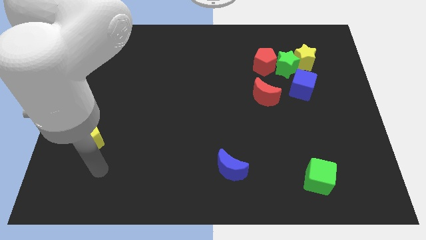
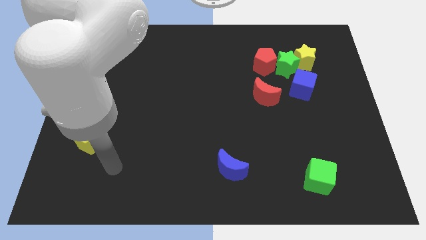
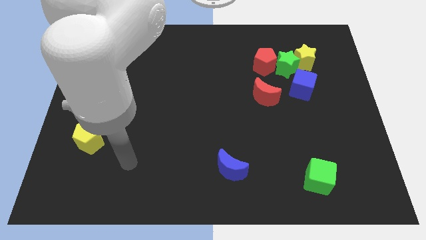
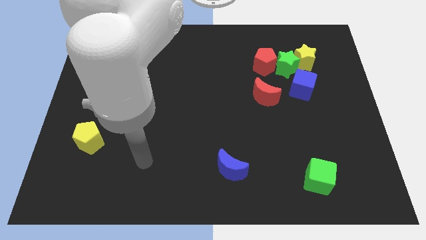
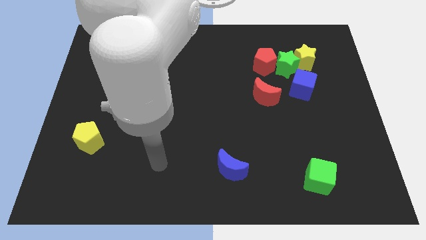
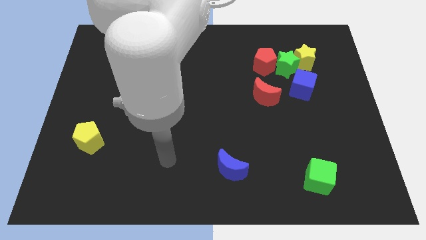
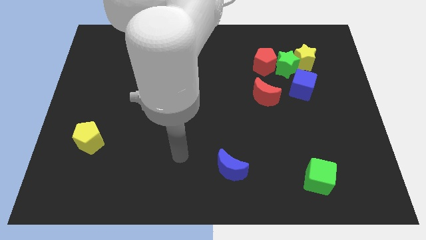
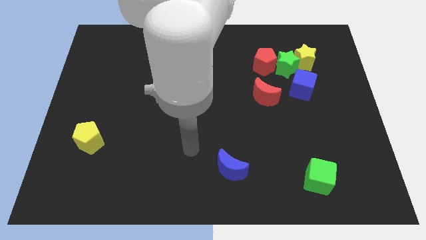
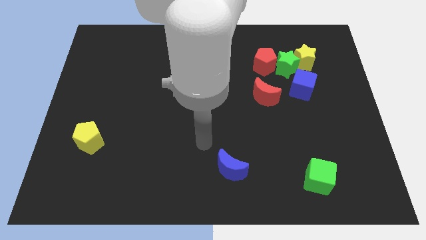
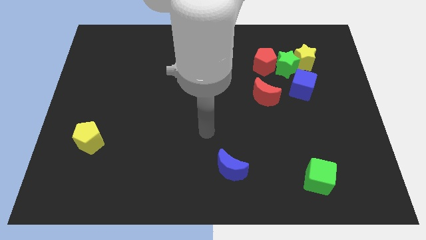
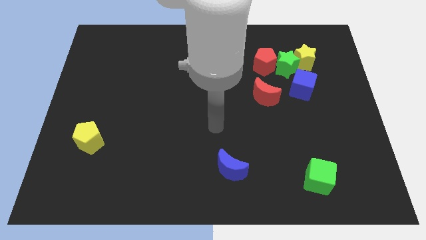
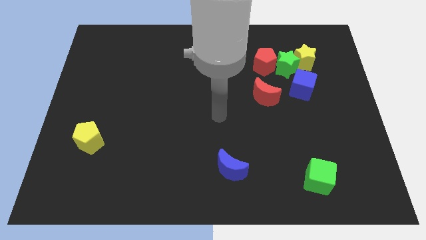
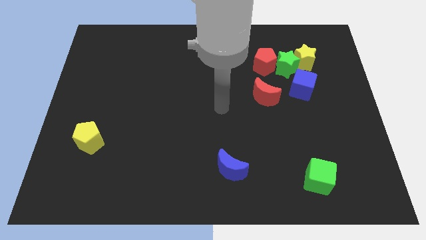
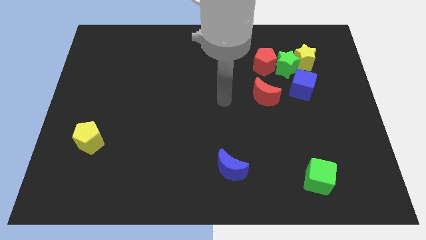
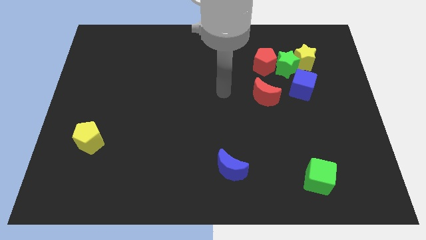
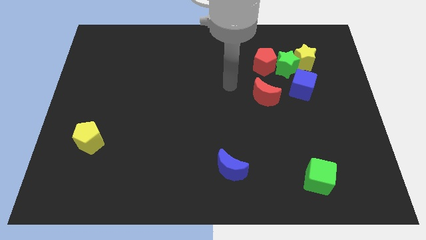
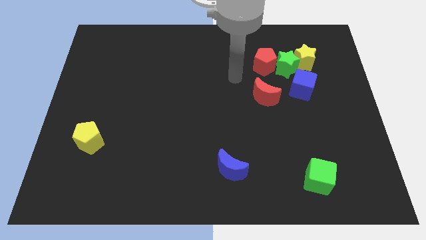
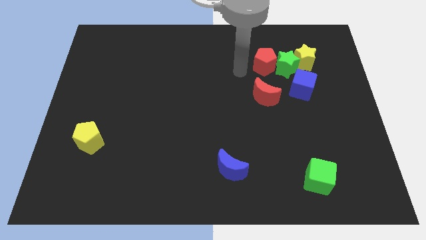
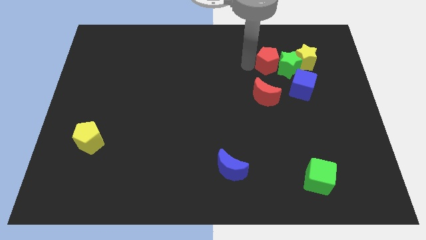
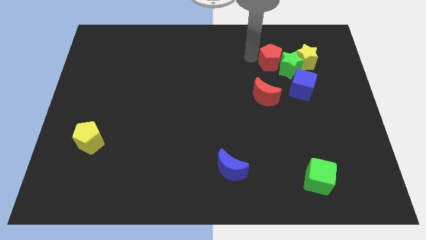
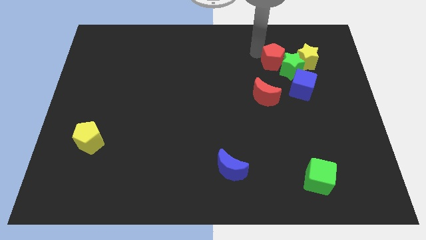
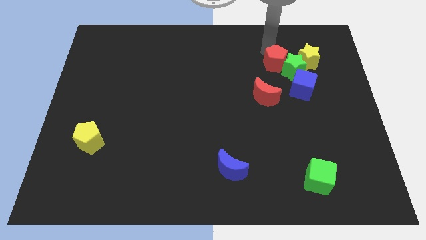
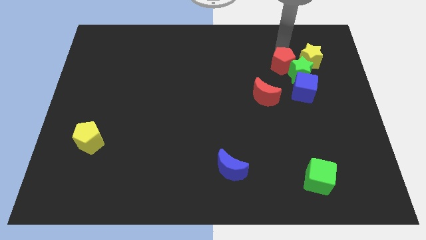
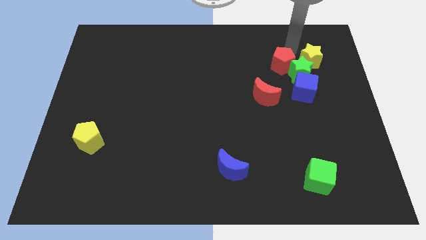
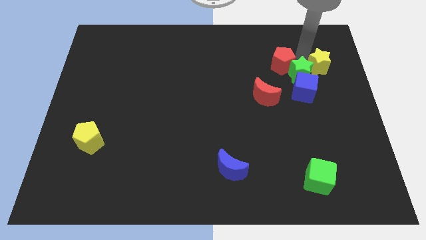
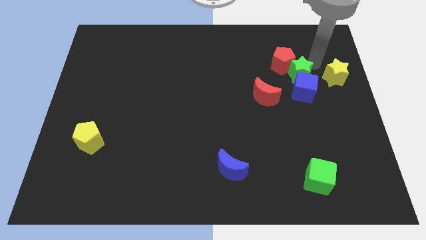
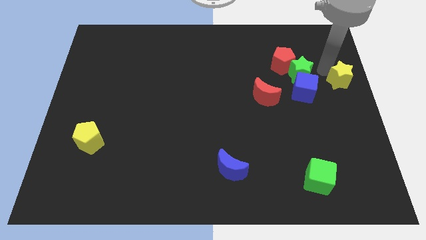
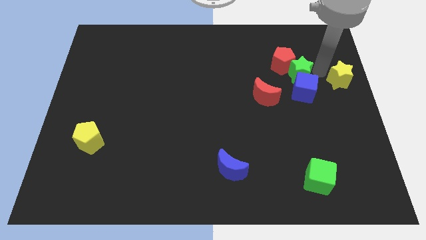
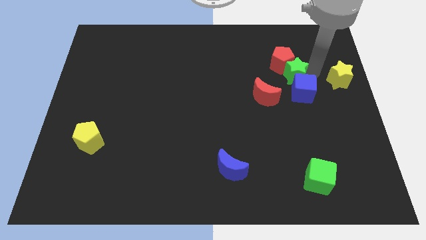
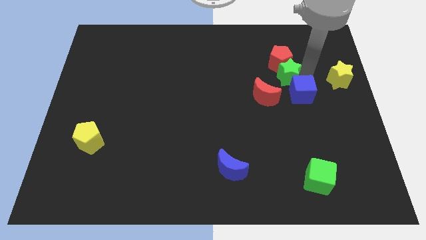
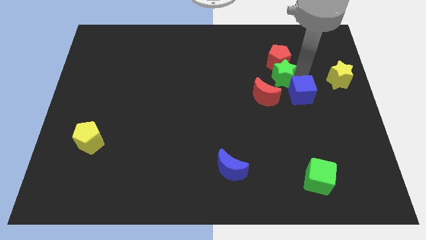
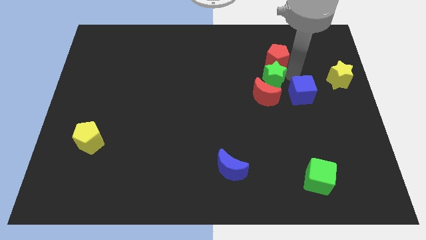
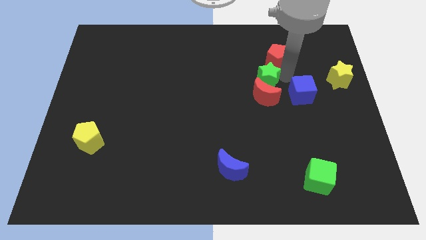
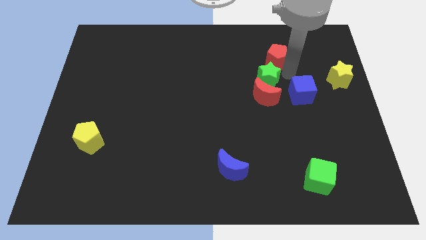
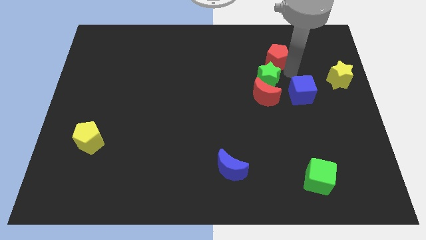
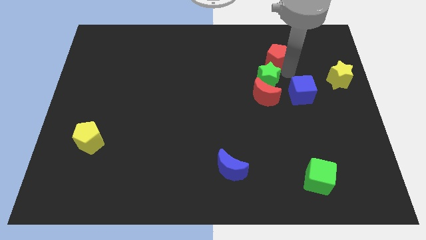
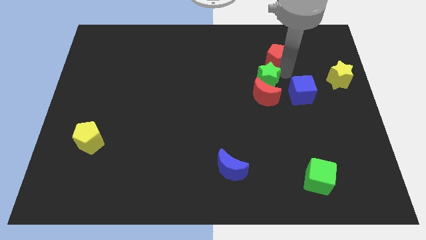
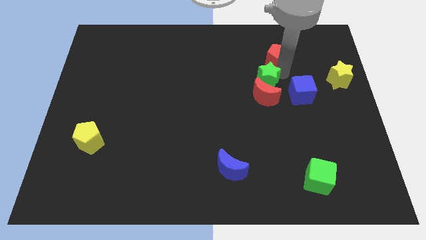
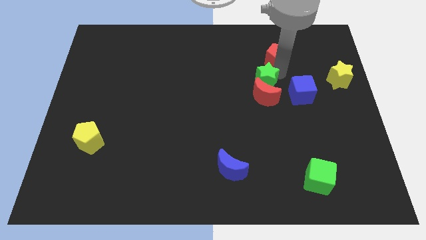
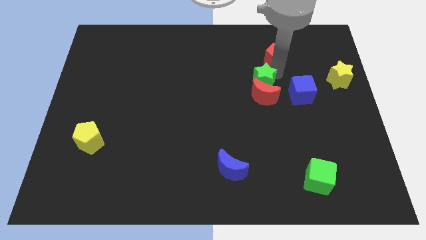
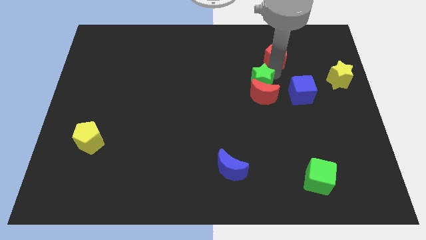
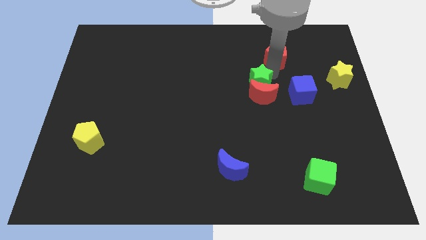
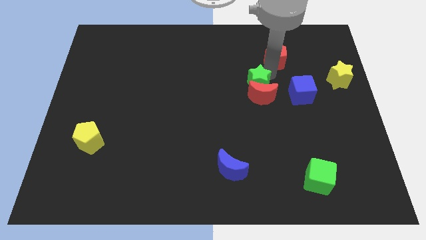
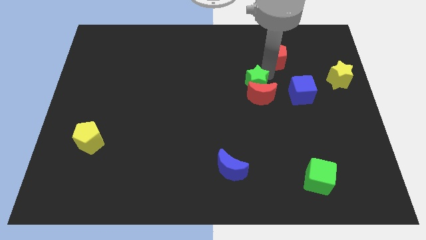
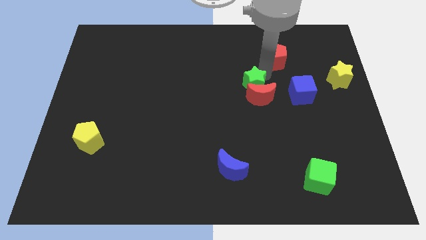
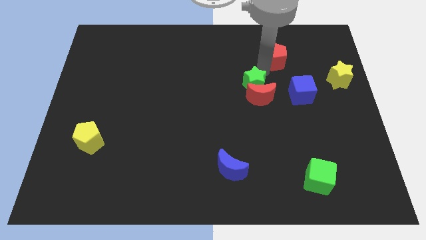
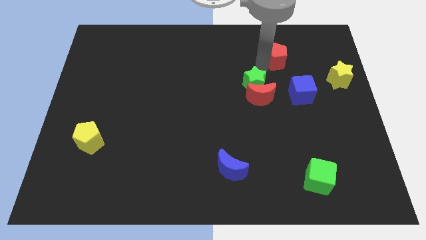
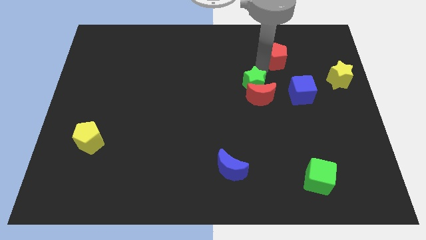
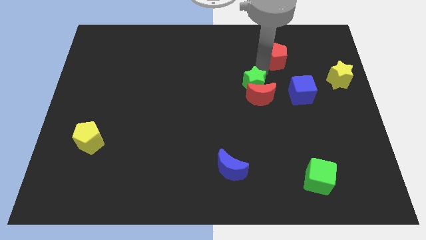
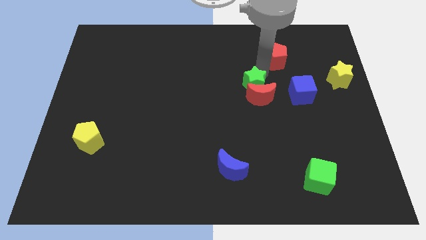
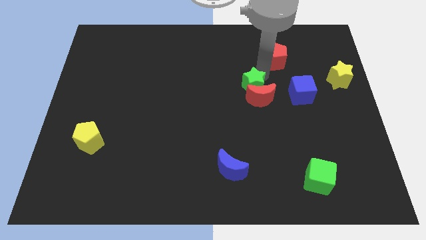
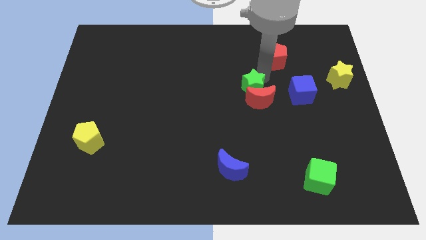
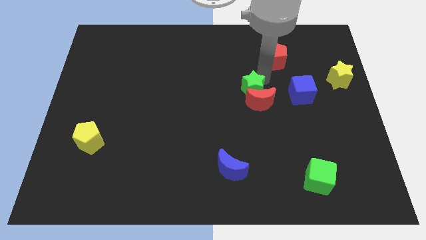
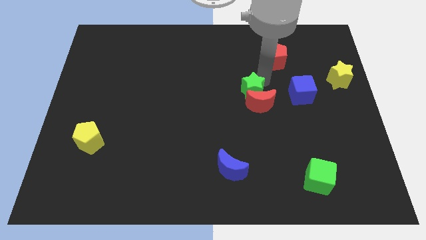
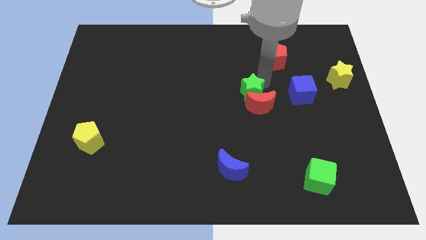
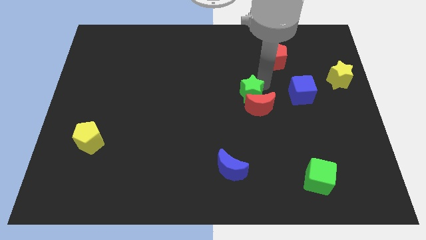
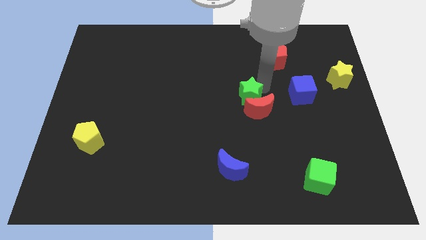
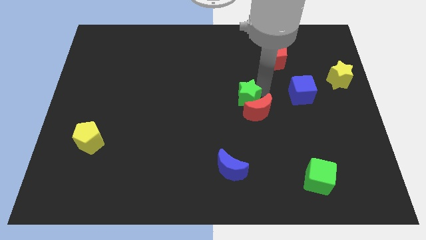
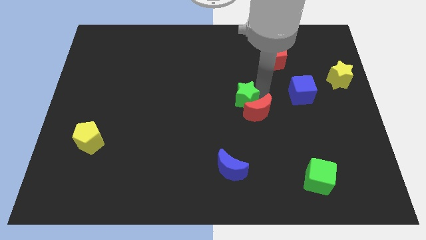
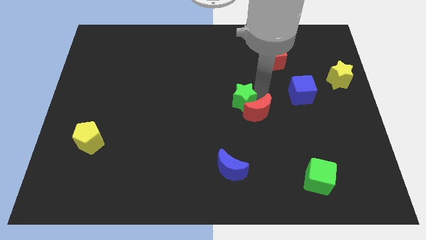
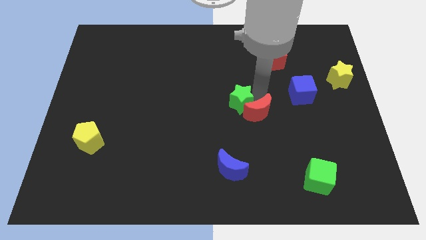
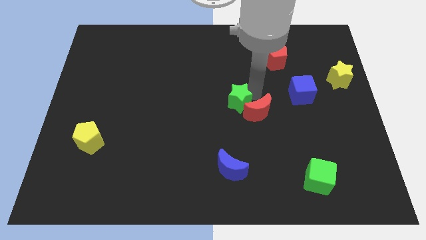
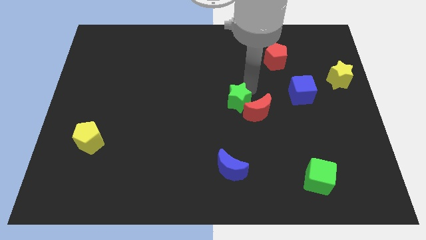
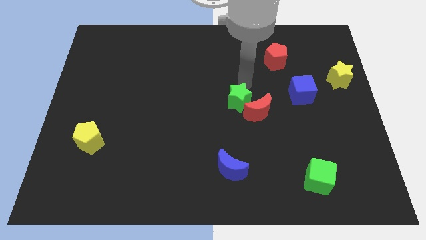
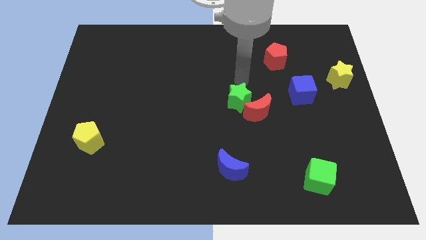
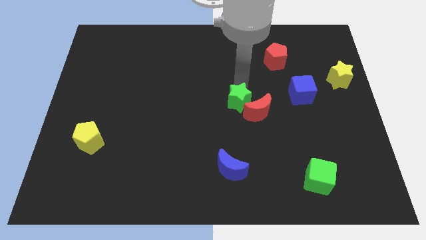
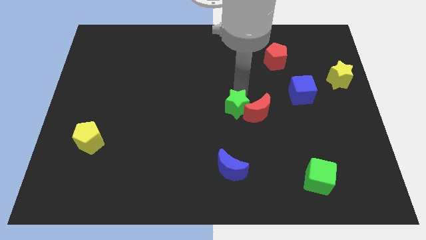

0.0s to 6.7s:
slide the green star to the bottom left side of the red moon
